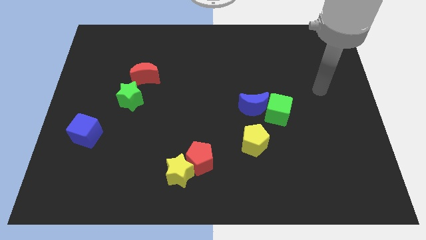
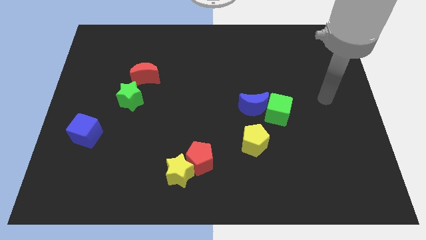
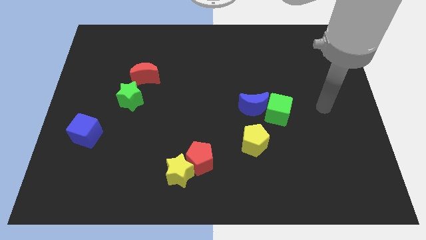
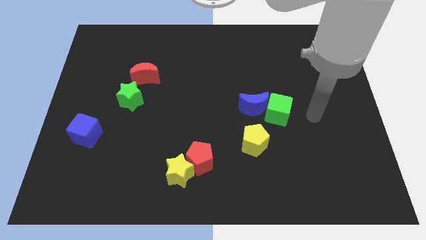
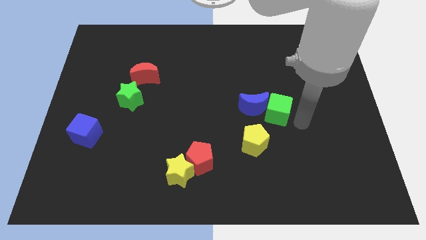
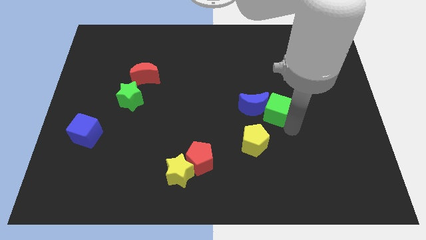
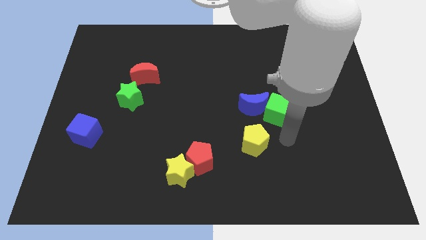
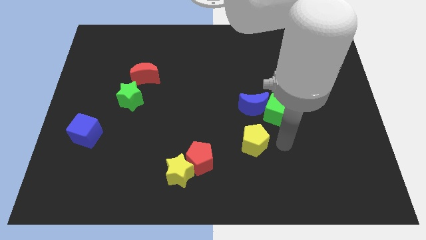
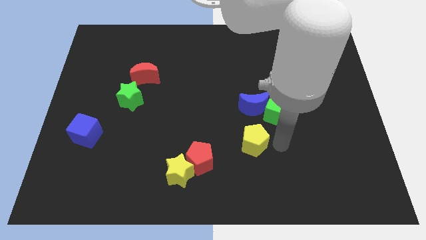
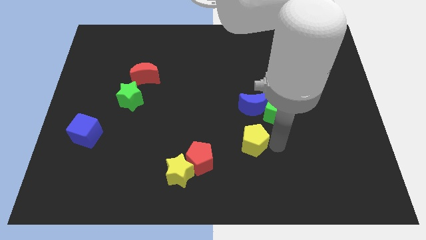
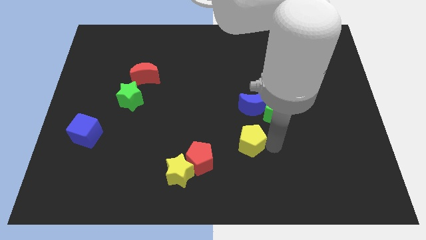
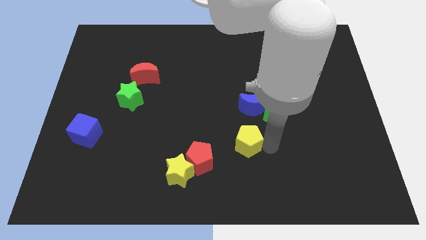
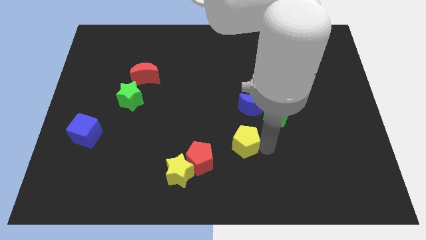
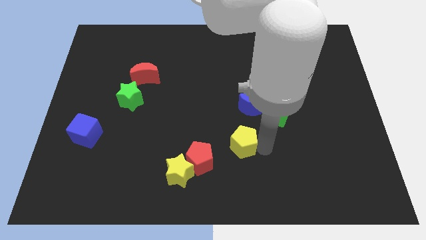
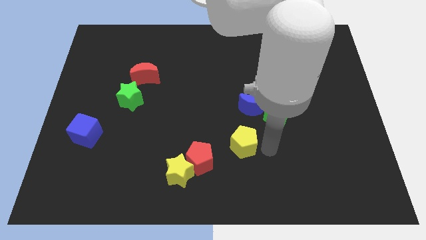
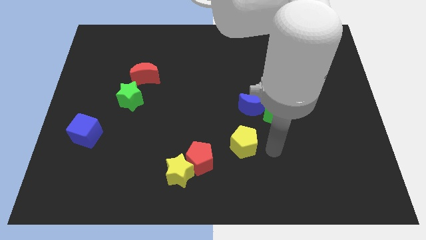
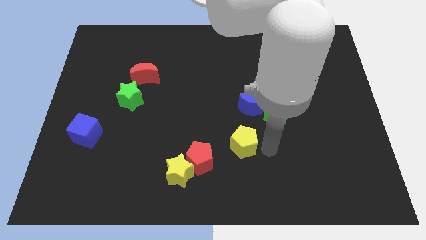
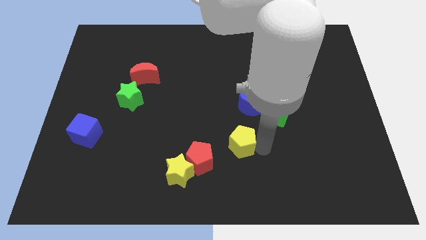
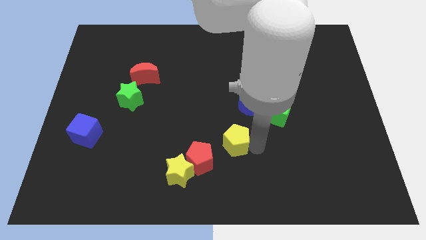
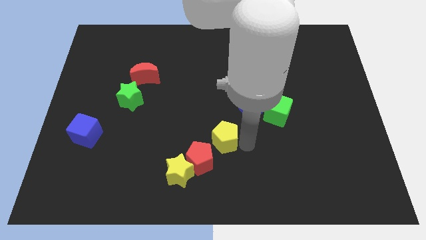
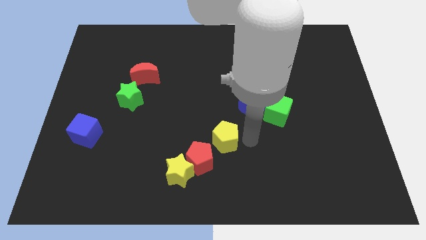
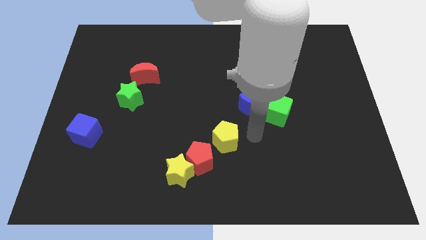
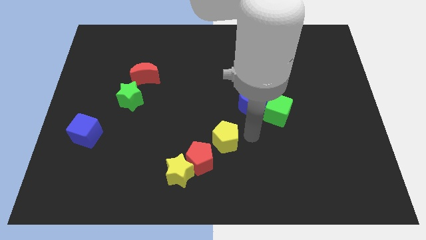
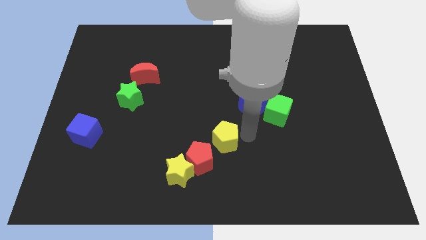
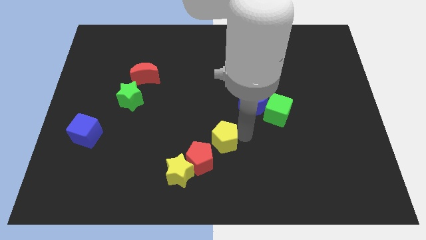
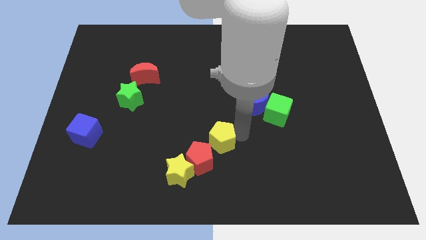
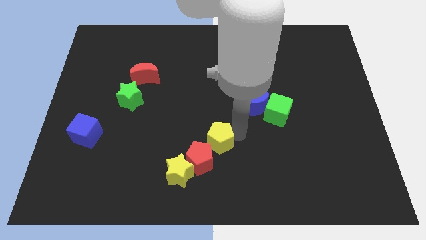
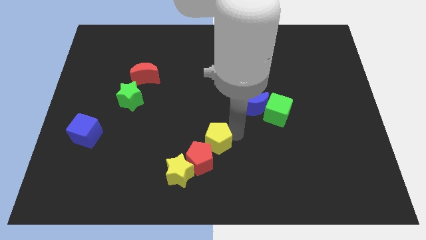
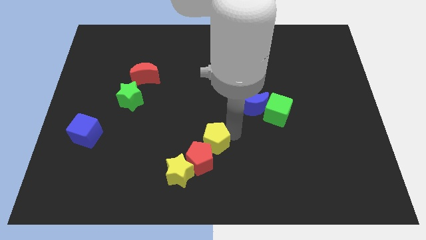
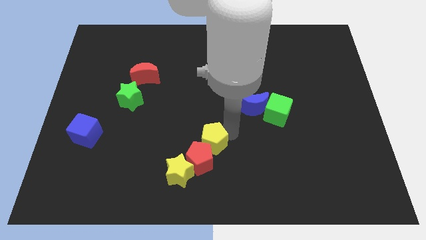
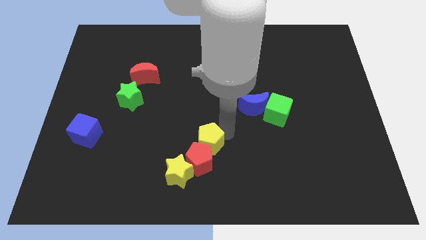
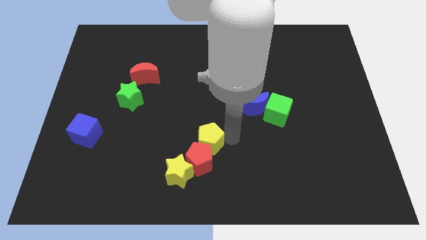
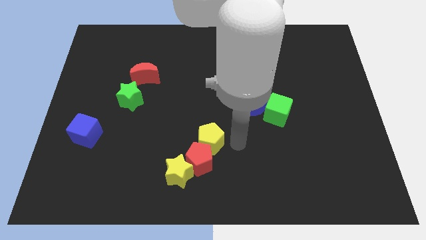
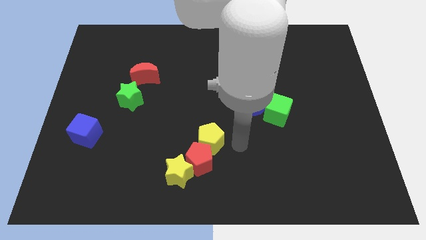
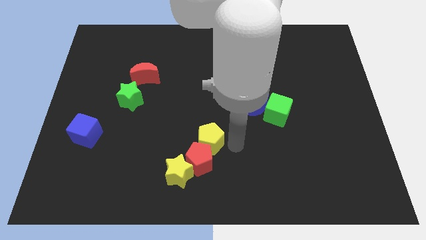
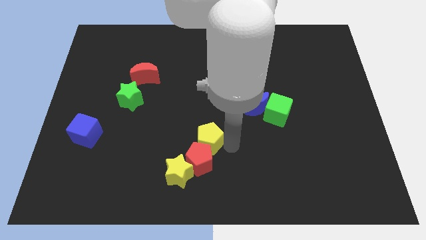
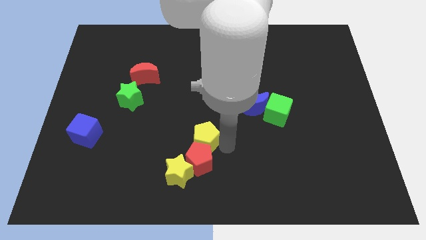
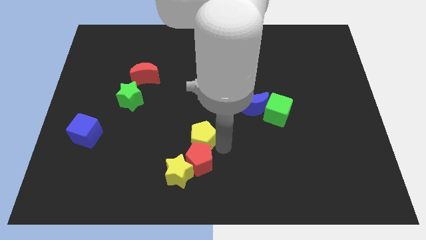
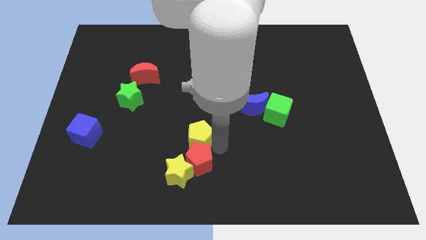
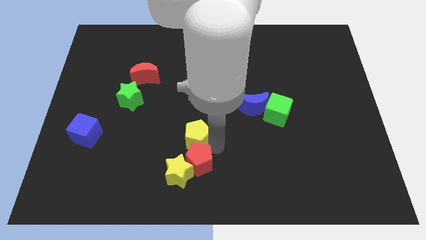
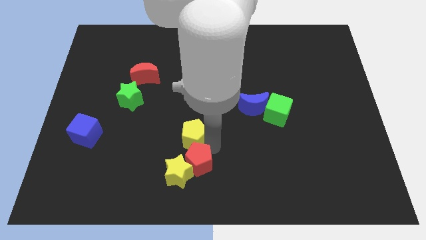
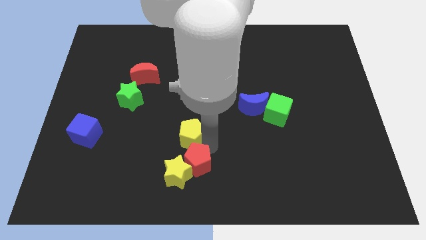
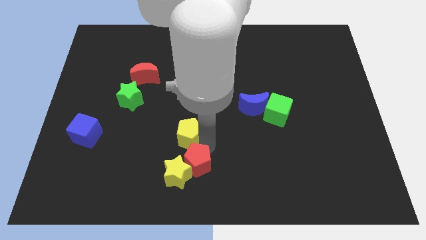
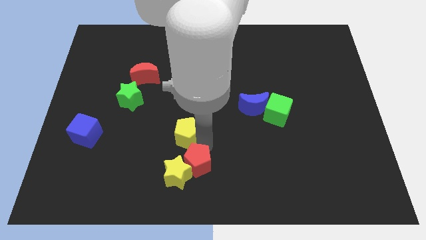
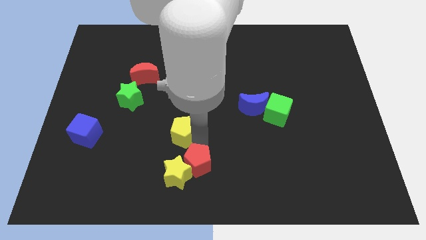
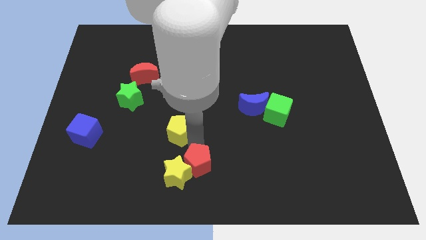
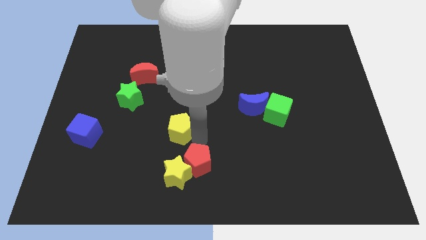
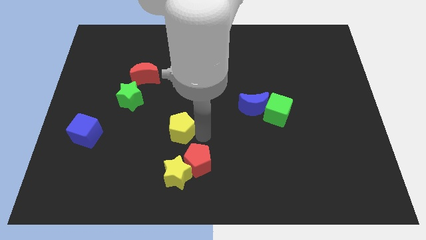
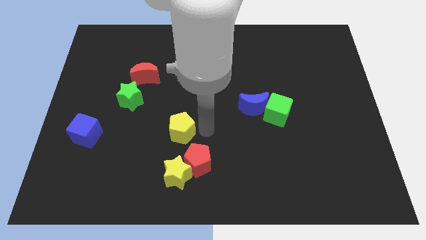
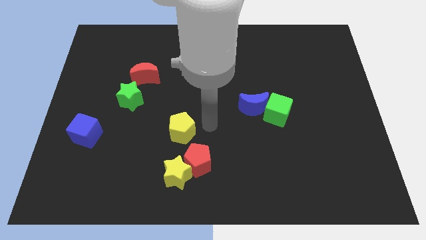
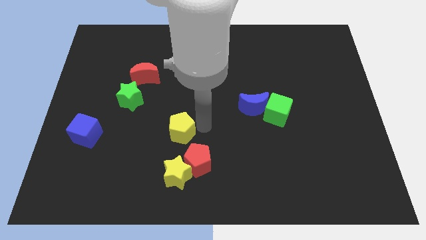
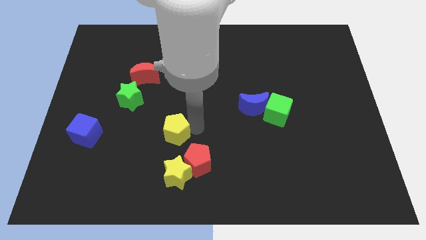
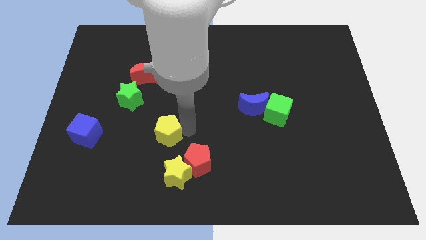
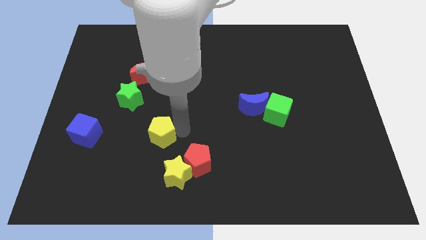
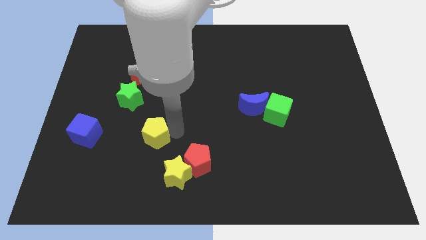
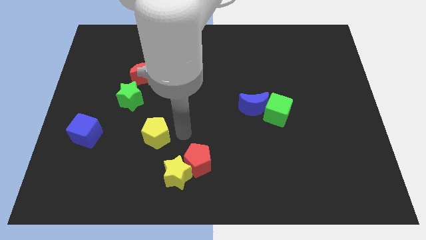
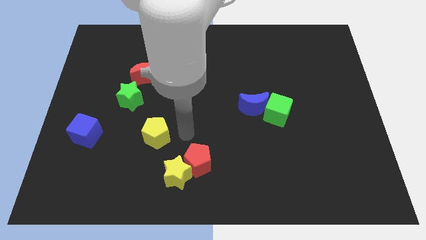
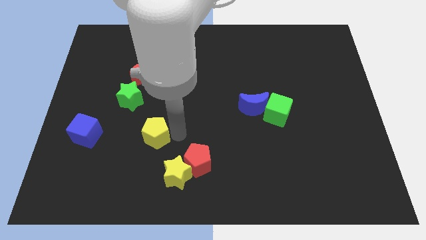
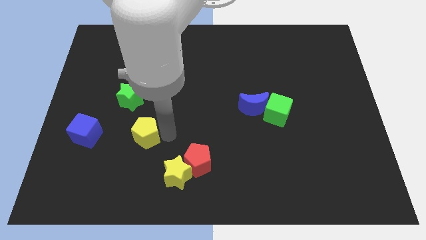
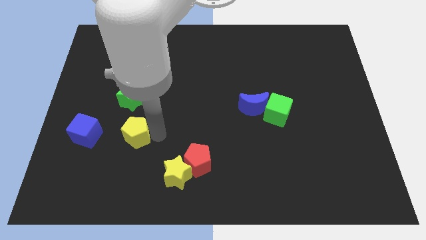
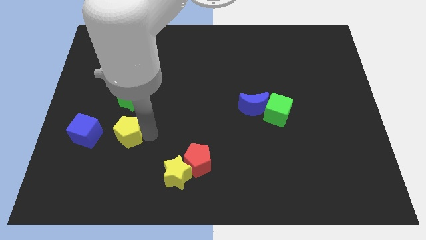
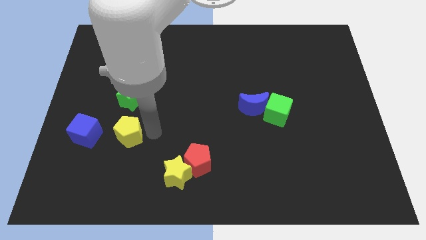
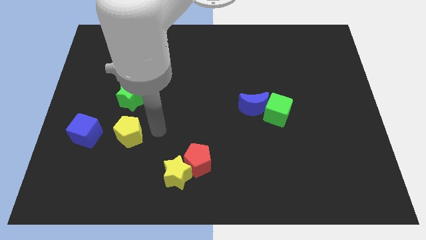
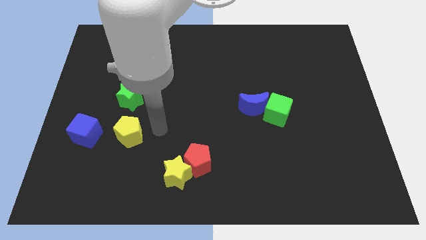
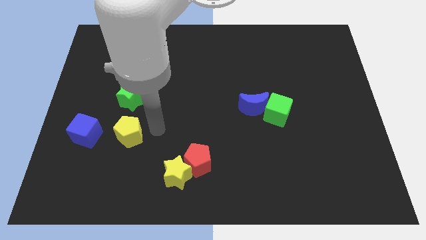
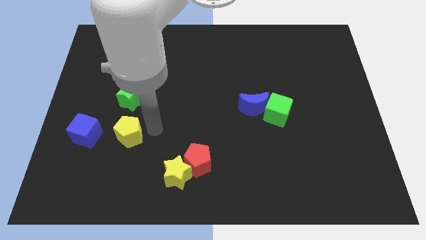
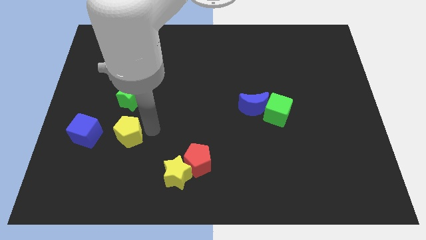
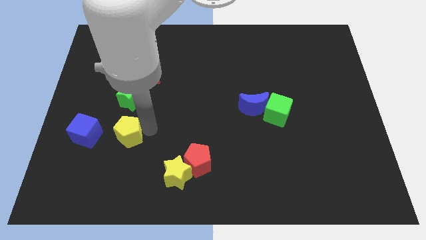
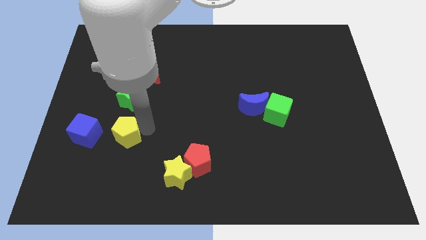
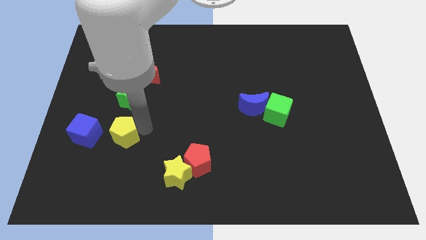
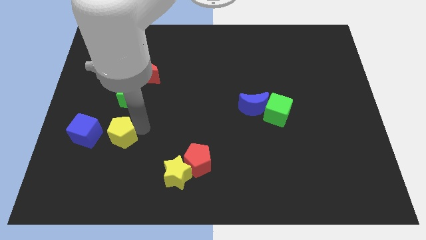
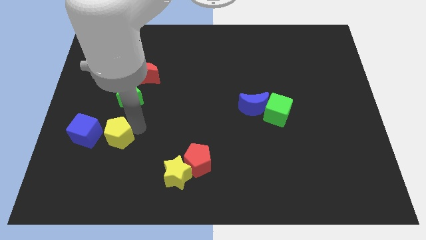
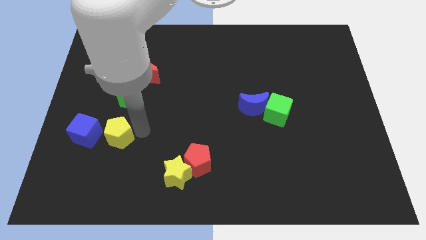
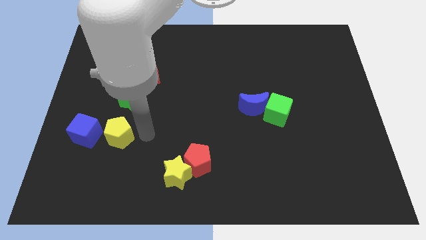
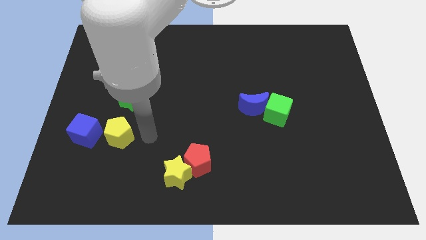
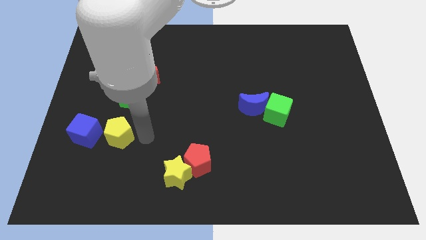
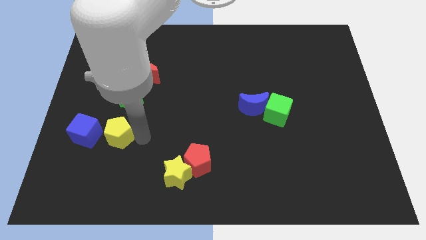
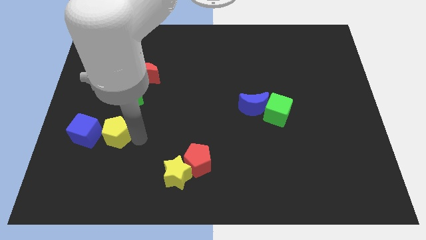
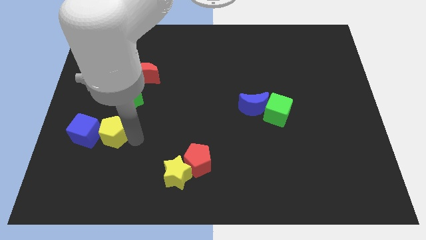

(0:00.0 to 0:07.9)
slide the yellow pentagon to the blue cube
